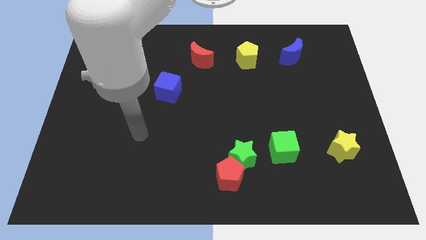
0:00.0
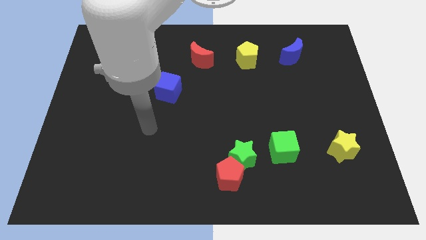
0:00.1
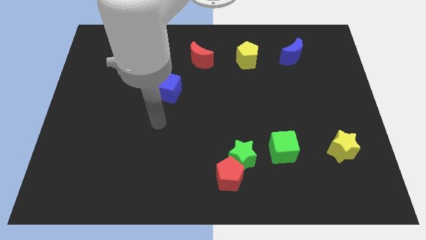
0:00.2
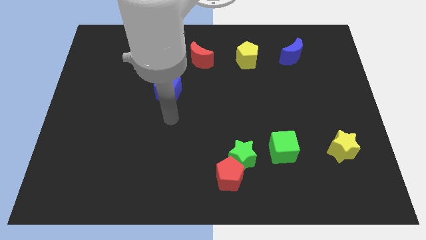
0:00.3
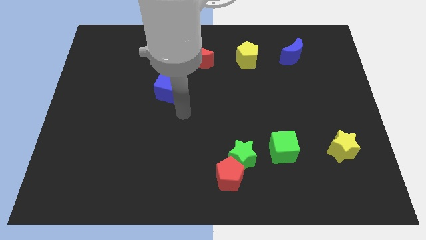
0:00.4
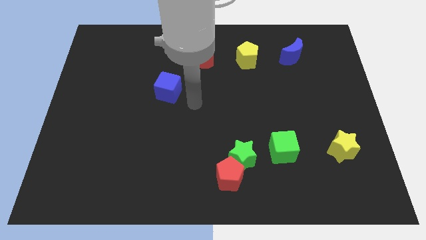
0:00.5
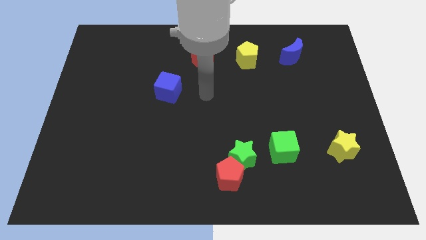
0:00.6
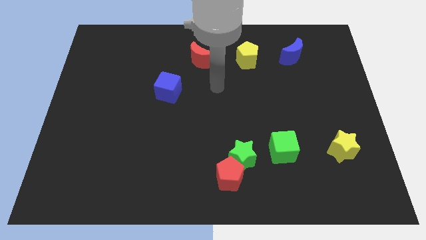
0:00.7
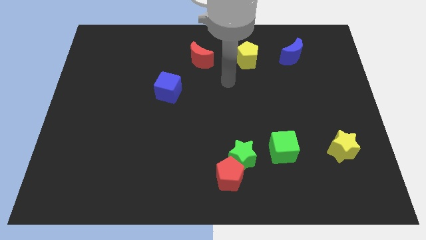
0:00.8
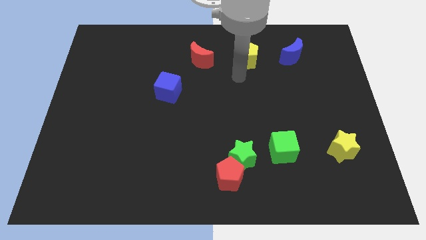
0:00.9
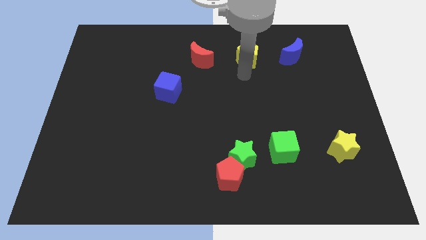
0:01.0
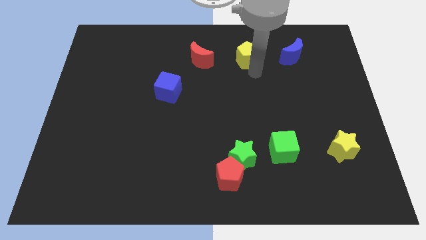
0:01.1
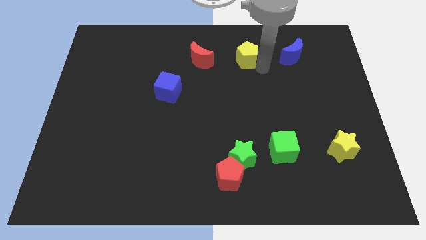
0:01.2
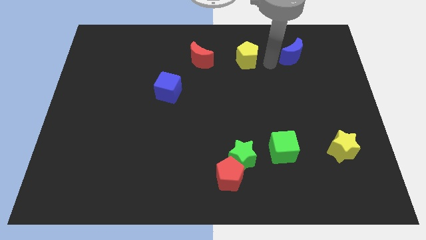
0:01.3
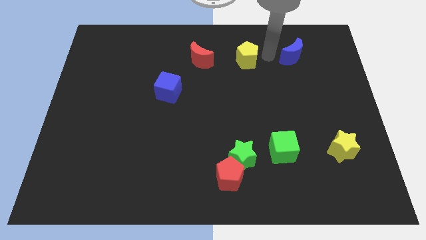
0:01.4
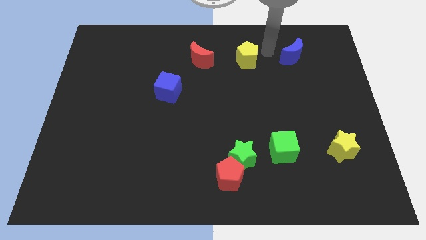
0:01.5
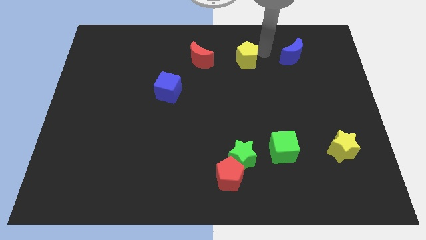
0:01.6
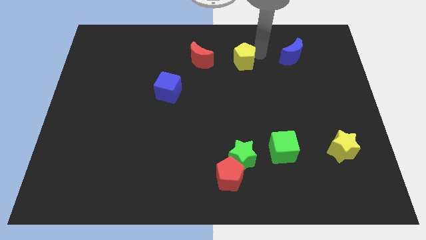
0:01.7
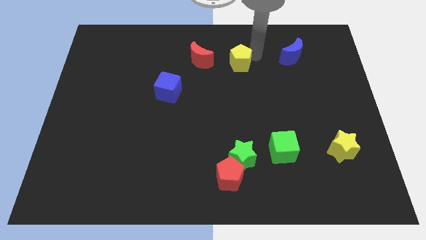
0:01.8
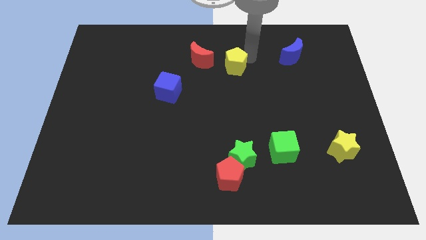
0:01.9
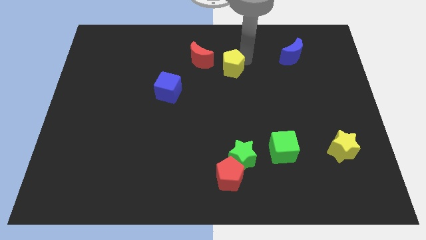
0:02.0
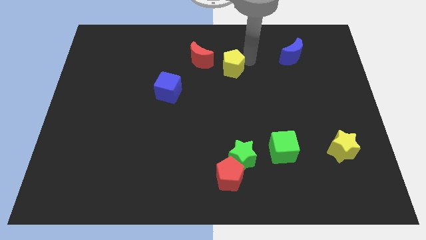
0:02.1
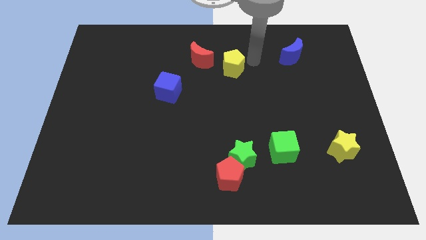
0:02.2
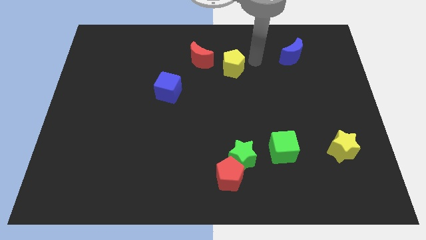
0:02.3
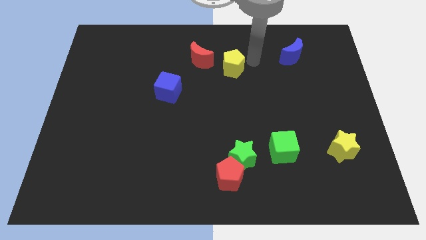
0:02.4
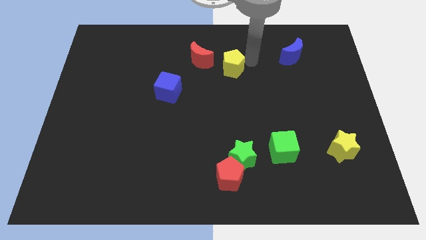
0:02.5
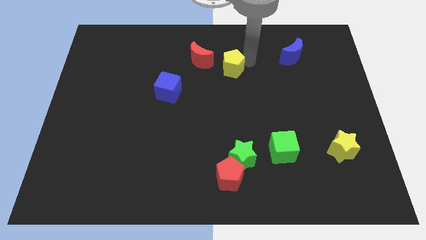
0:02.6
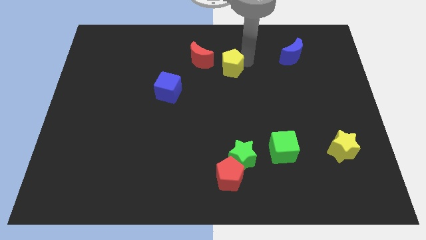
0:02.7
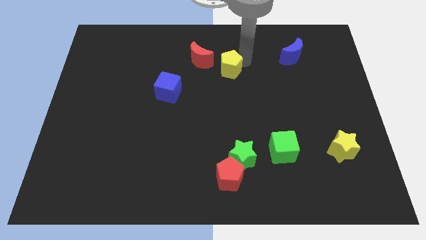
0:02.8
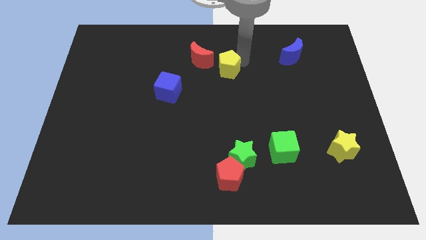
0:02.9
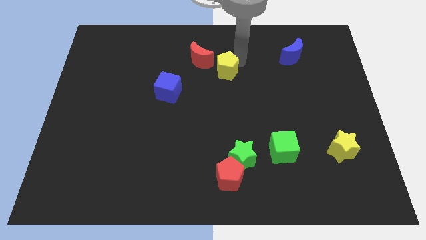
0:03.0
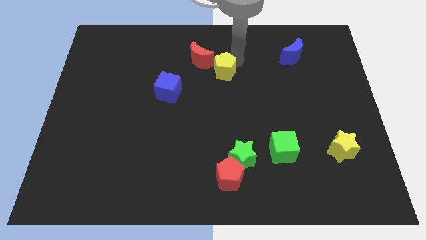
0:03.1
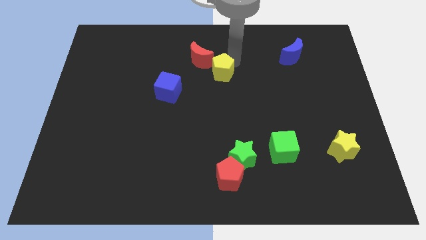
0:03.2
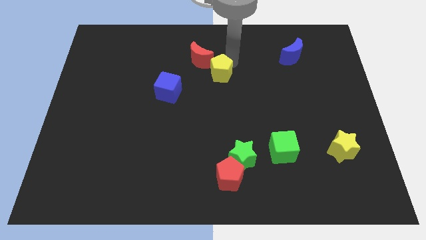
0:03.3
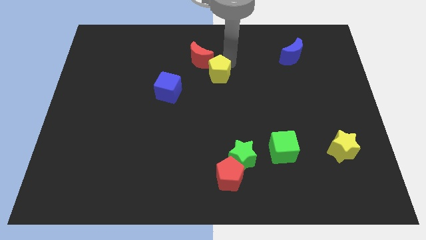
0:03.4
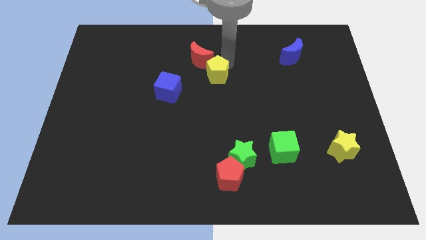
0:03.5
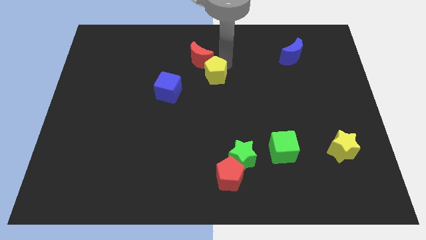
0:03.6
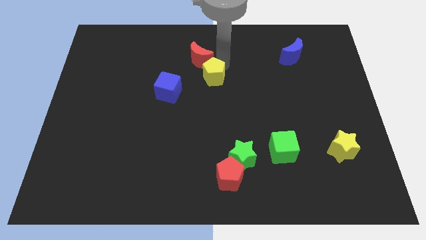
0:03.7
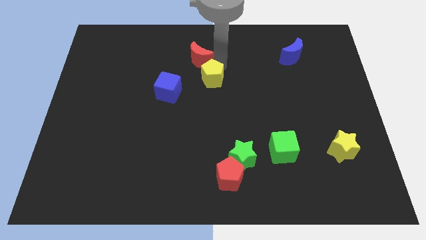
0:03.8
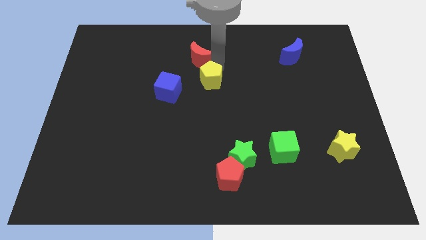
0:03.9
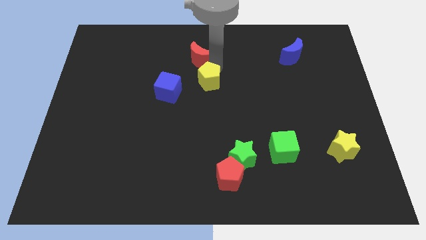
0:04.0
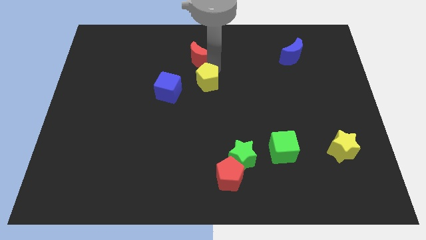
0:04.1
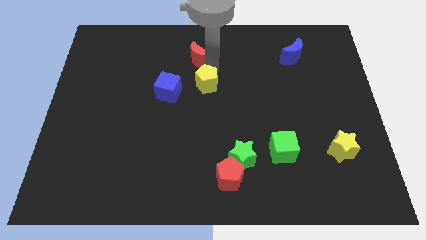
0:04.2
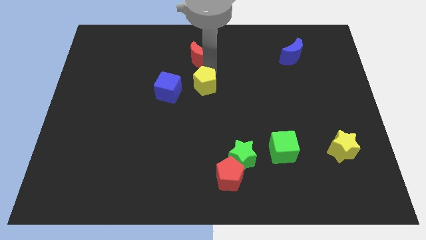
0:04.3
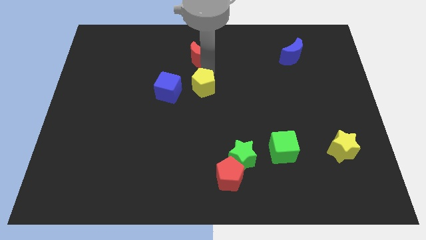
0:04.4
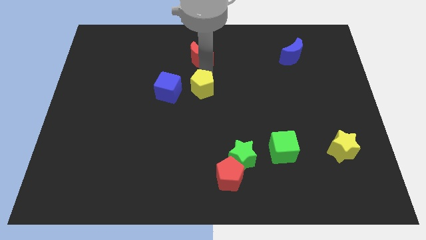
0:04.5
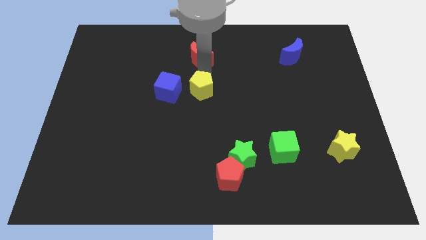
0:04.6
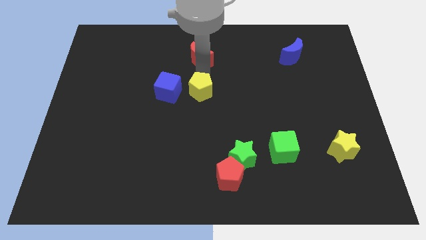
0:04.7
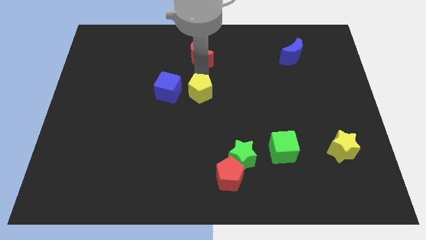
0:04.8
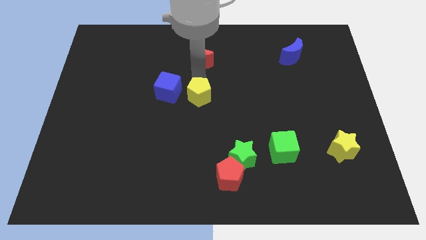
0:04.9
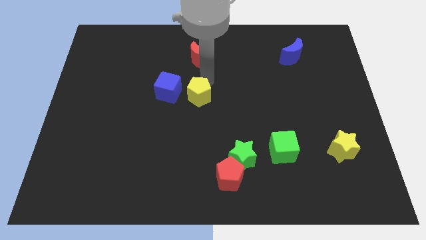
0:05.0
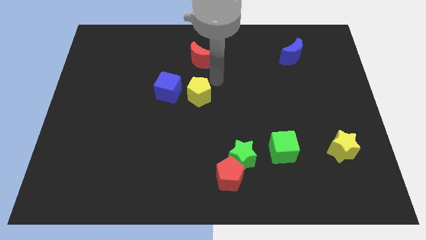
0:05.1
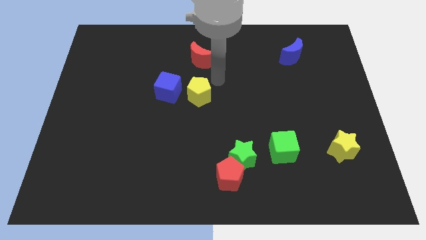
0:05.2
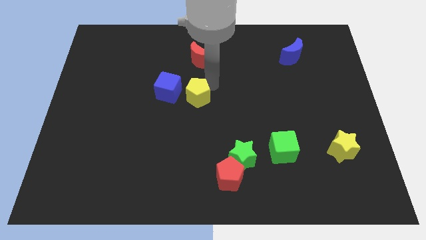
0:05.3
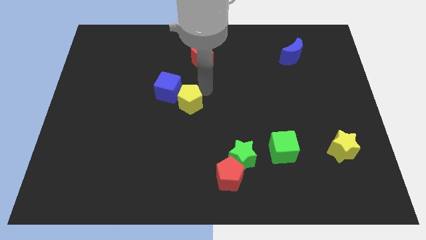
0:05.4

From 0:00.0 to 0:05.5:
move the yellow pentagon downwards and then to the left

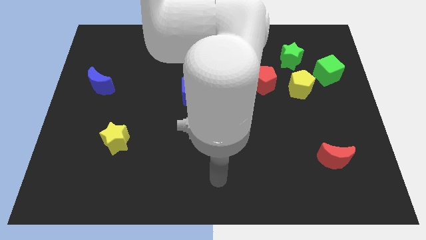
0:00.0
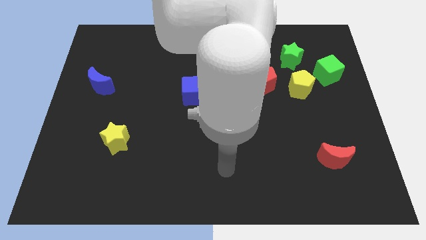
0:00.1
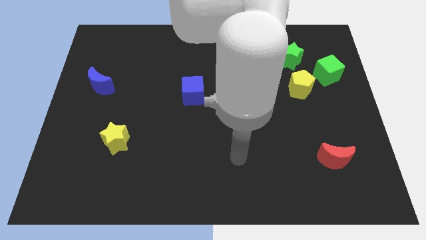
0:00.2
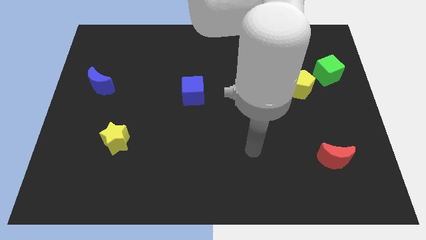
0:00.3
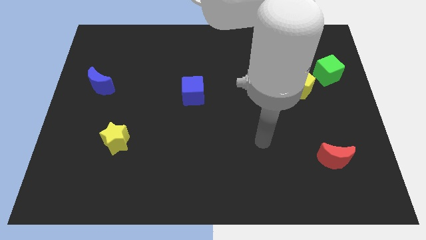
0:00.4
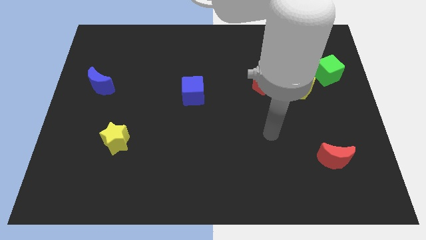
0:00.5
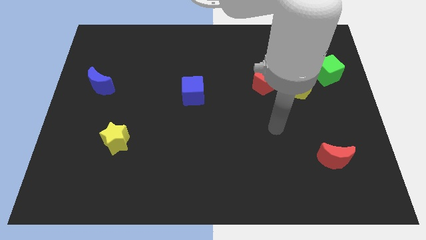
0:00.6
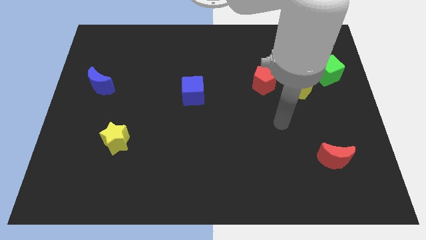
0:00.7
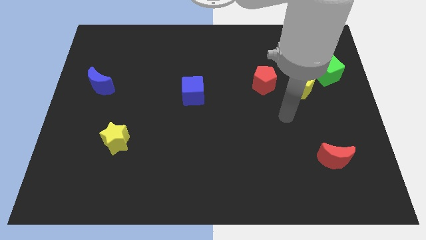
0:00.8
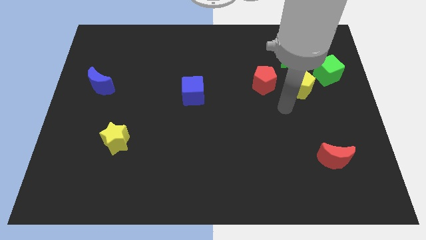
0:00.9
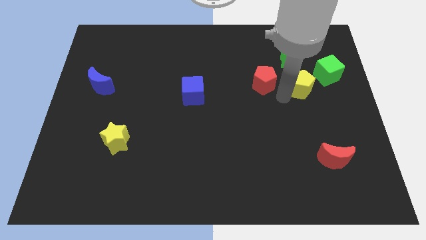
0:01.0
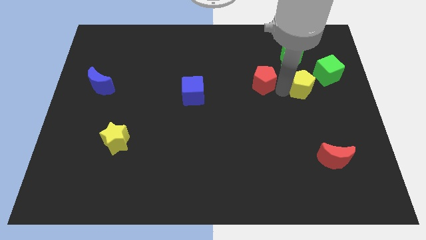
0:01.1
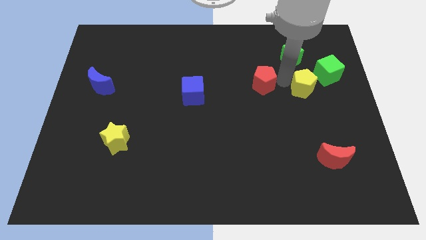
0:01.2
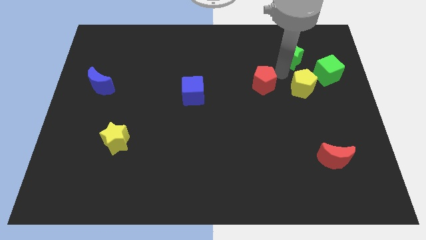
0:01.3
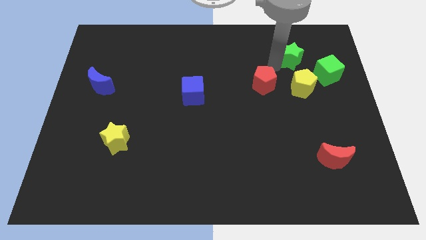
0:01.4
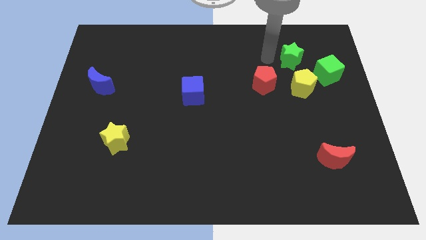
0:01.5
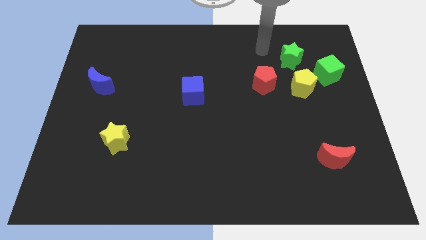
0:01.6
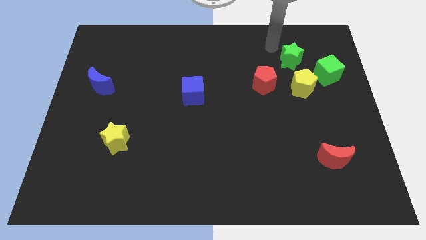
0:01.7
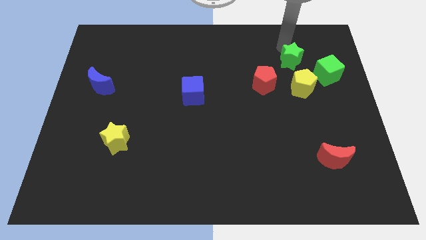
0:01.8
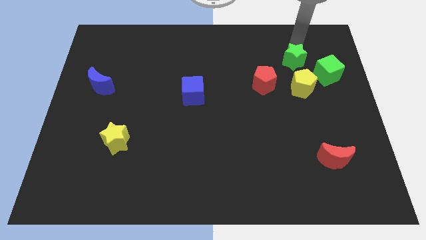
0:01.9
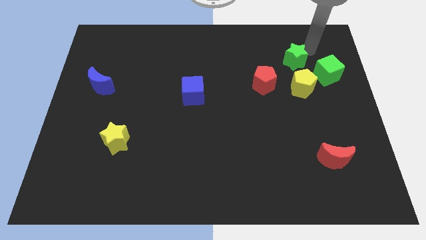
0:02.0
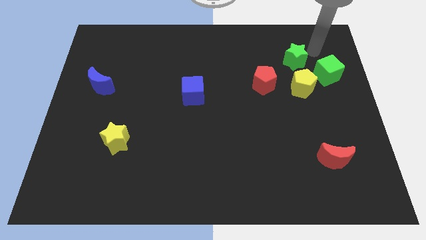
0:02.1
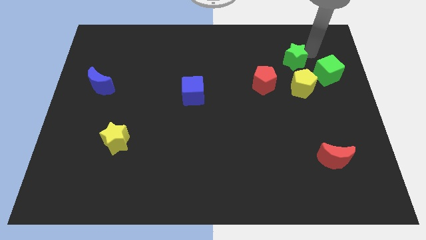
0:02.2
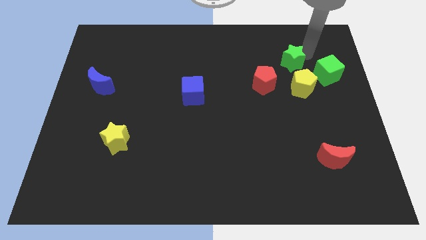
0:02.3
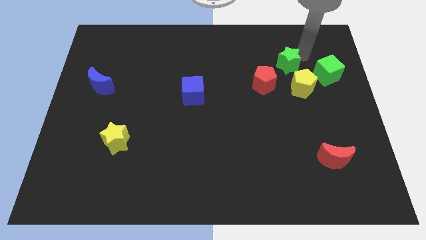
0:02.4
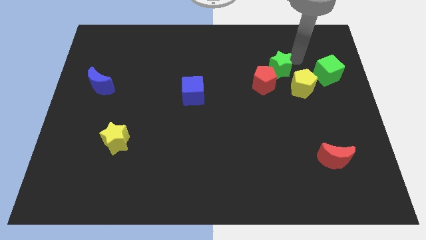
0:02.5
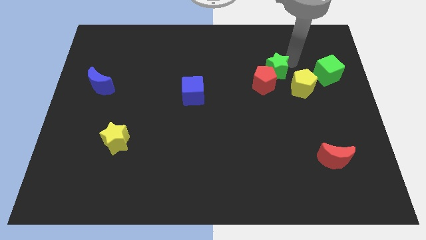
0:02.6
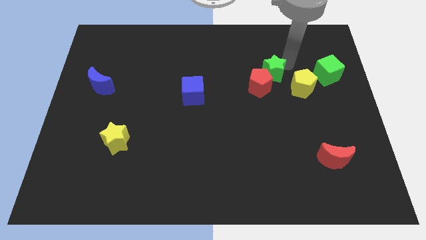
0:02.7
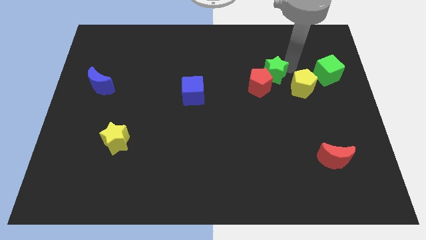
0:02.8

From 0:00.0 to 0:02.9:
slide the green star a little down and to the left
